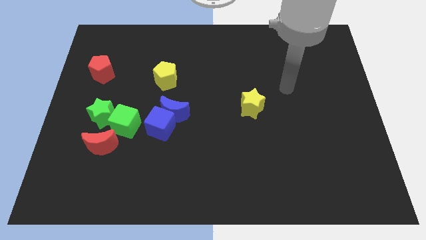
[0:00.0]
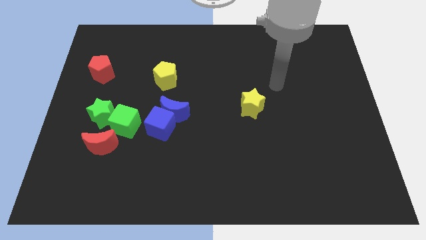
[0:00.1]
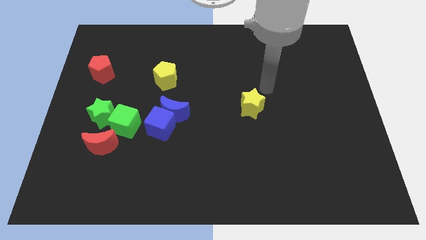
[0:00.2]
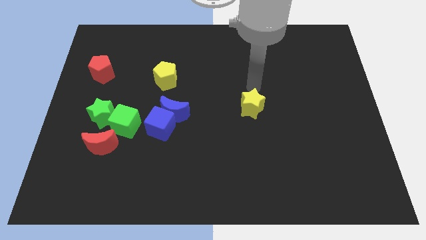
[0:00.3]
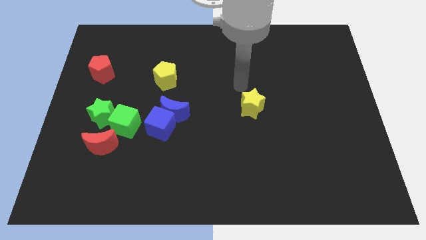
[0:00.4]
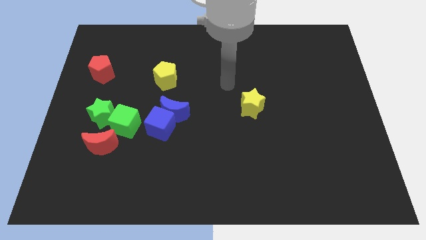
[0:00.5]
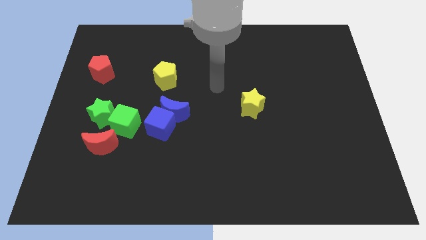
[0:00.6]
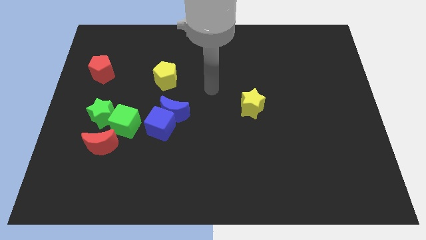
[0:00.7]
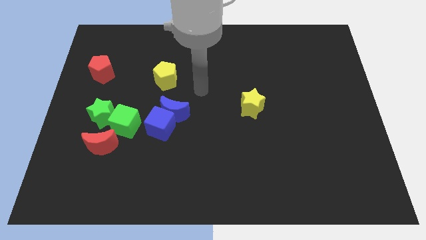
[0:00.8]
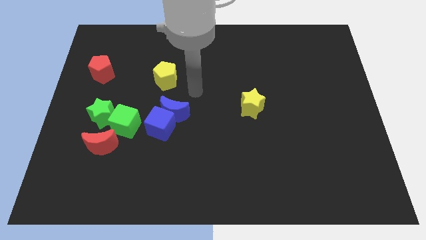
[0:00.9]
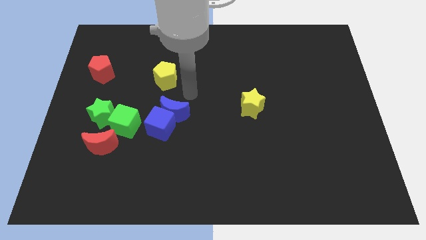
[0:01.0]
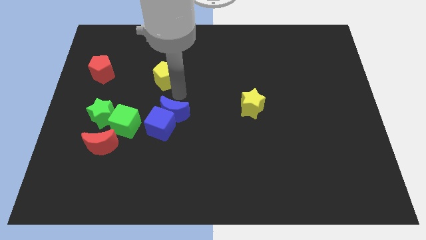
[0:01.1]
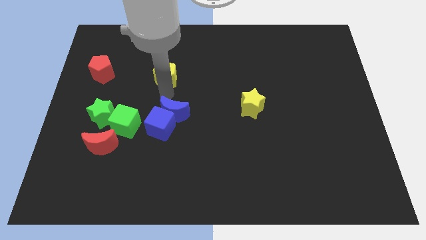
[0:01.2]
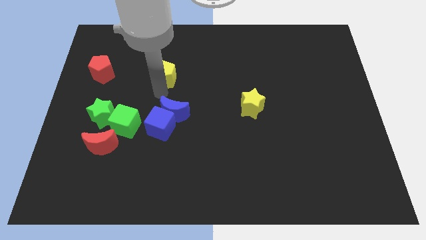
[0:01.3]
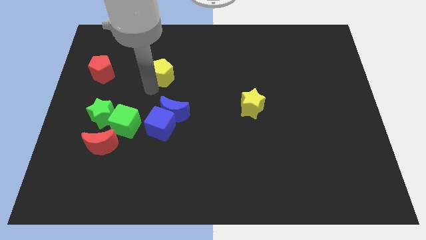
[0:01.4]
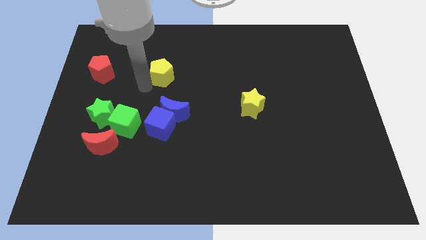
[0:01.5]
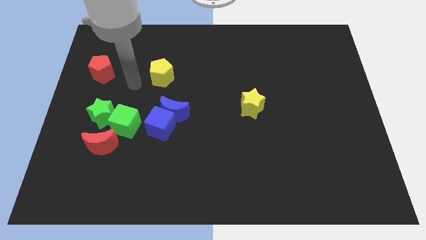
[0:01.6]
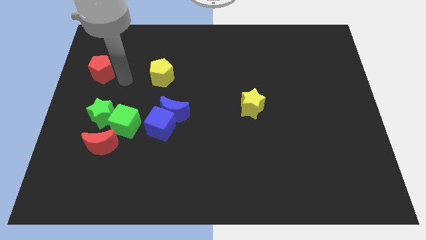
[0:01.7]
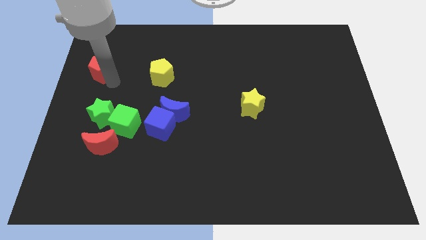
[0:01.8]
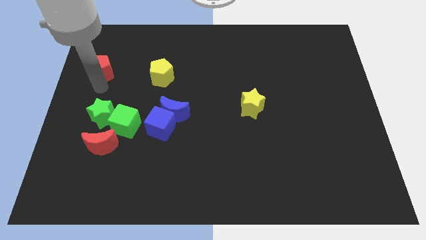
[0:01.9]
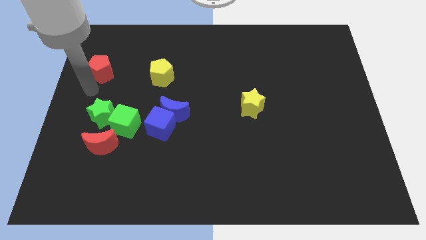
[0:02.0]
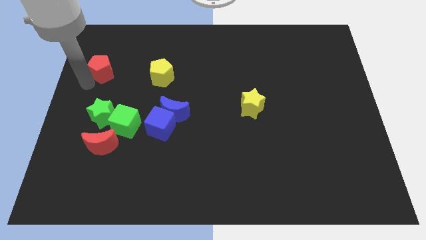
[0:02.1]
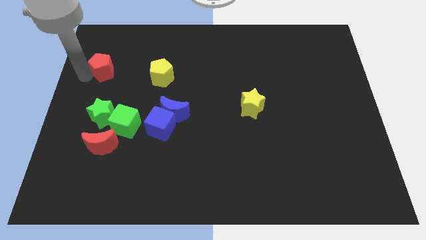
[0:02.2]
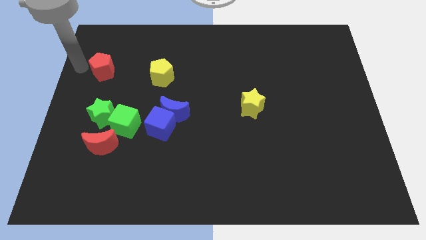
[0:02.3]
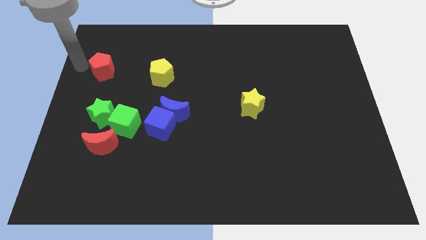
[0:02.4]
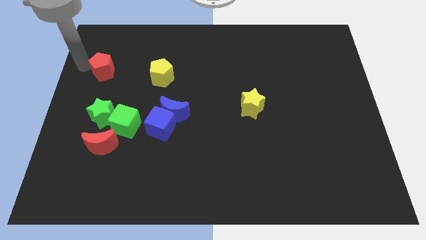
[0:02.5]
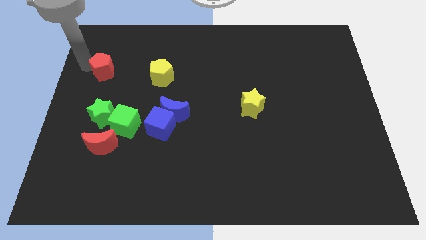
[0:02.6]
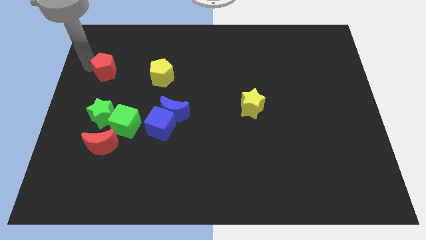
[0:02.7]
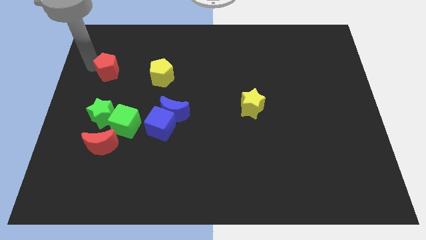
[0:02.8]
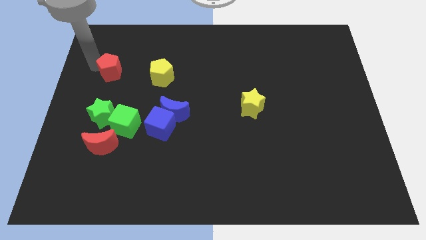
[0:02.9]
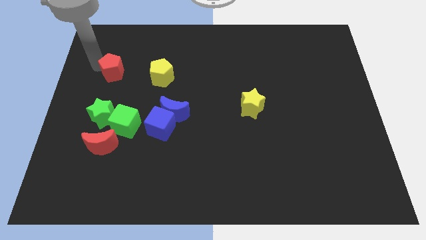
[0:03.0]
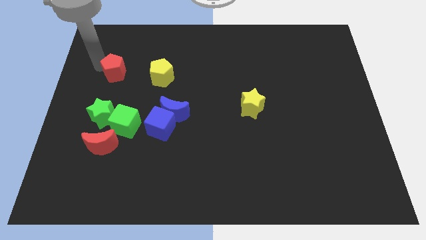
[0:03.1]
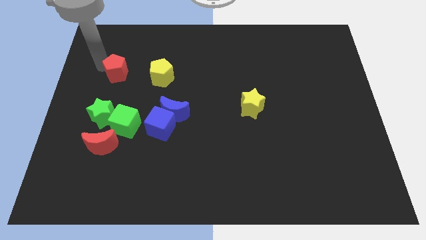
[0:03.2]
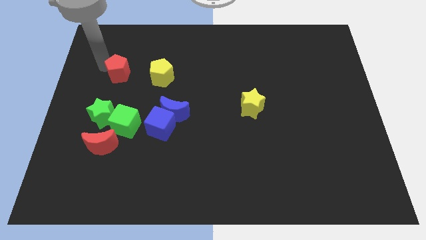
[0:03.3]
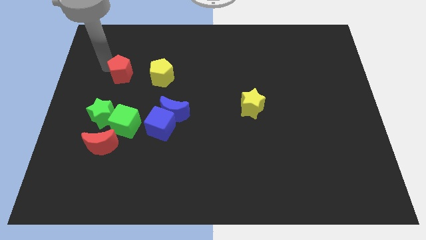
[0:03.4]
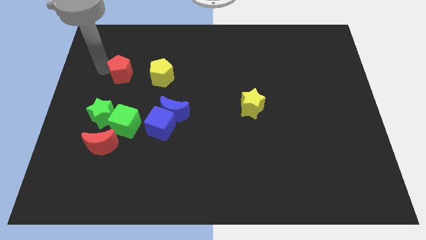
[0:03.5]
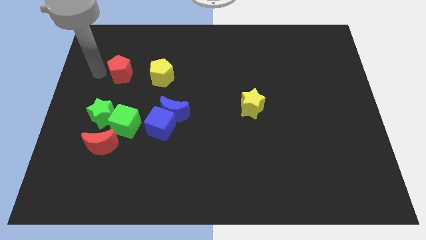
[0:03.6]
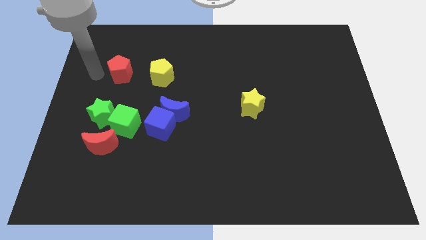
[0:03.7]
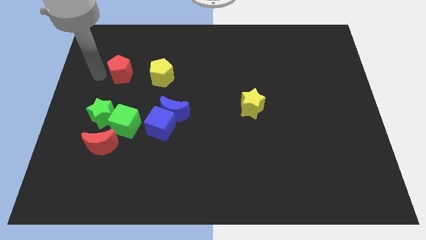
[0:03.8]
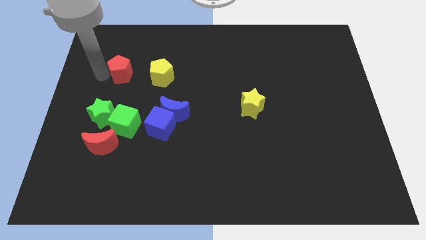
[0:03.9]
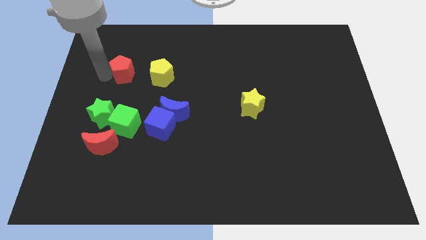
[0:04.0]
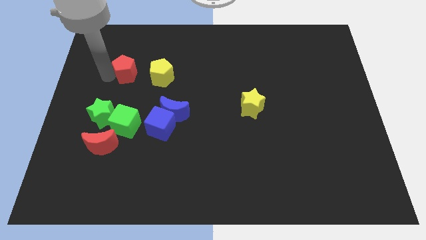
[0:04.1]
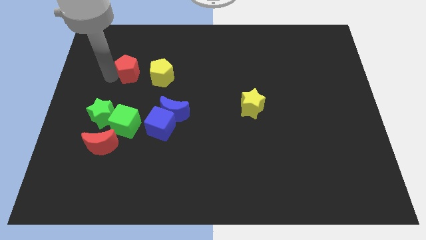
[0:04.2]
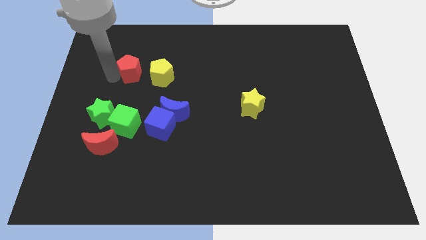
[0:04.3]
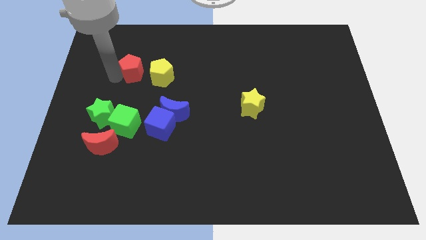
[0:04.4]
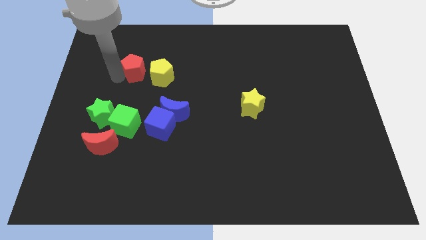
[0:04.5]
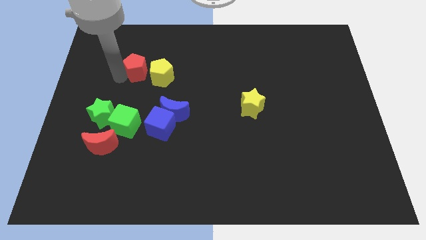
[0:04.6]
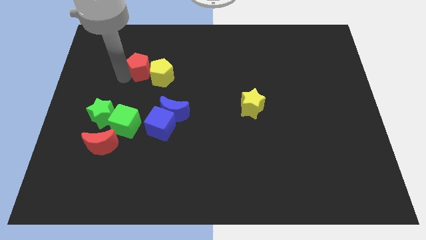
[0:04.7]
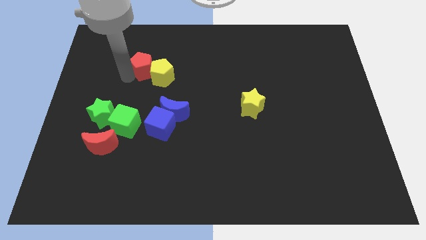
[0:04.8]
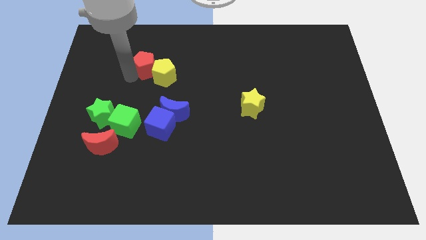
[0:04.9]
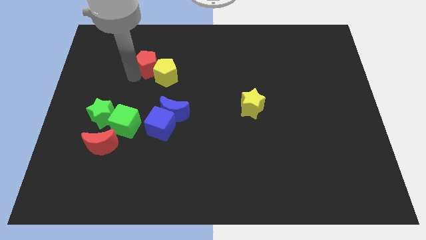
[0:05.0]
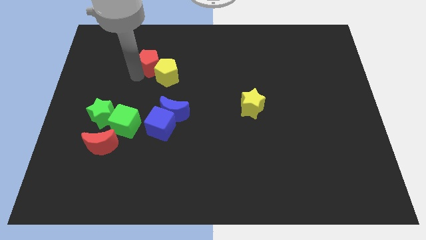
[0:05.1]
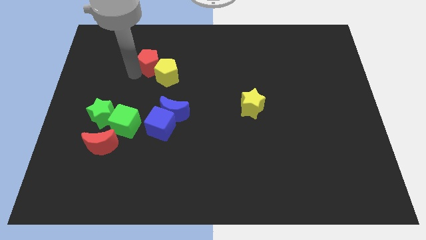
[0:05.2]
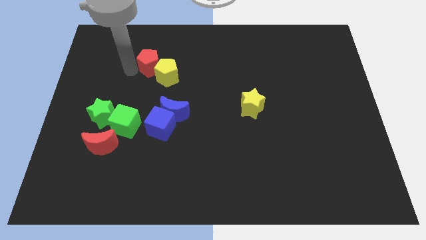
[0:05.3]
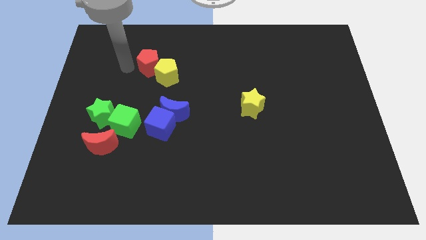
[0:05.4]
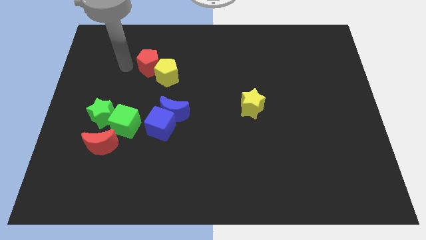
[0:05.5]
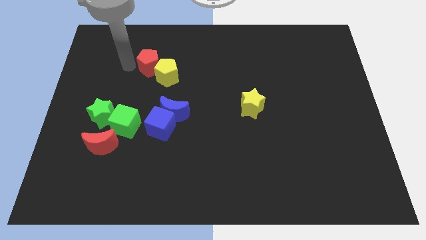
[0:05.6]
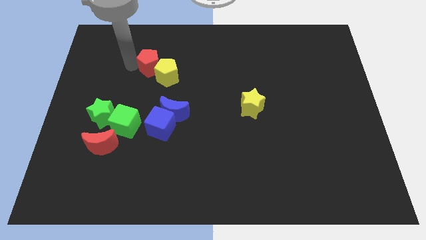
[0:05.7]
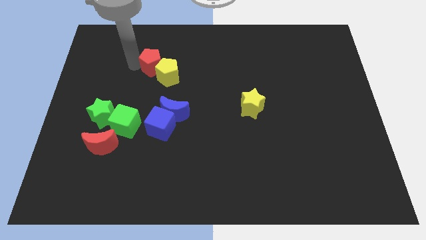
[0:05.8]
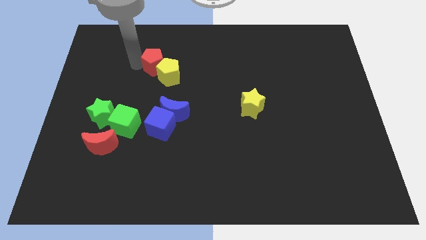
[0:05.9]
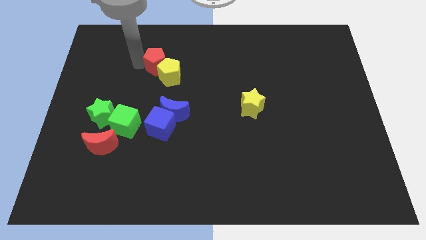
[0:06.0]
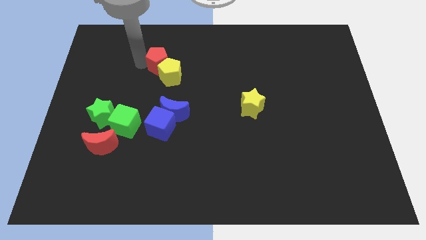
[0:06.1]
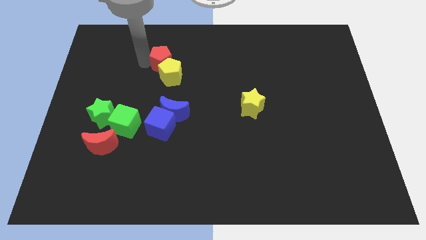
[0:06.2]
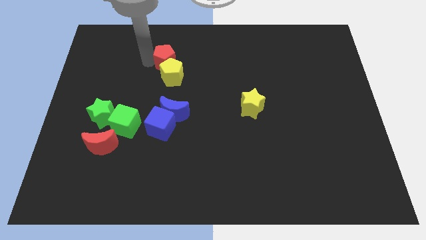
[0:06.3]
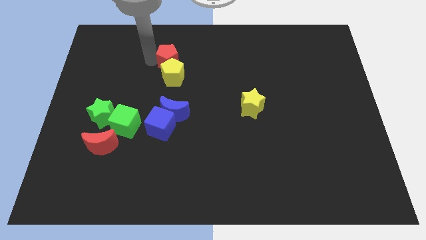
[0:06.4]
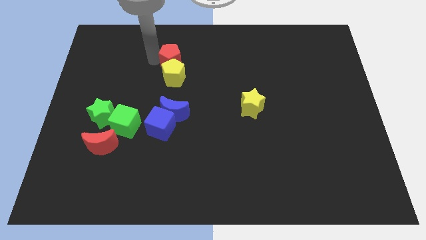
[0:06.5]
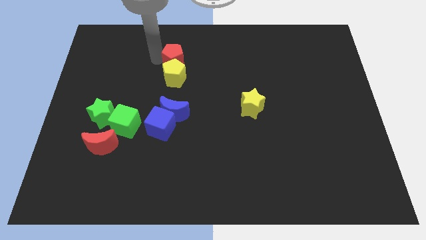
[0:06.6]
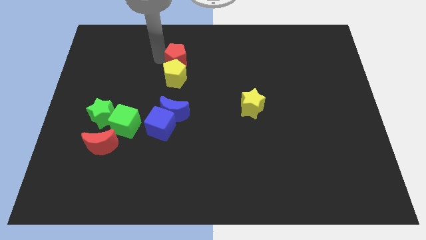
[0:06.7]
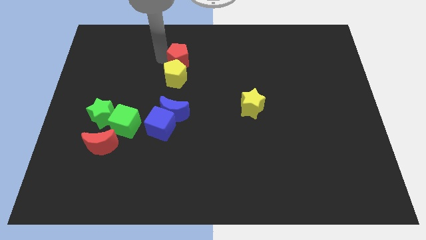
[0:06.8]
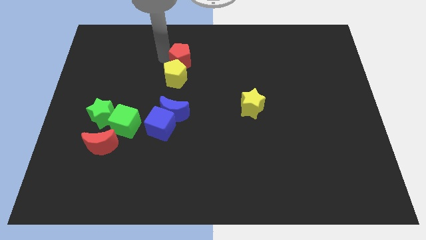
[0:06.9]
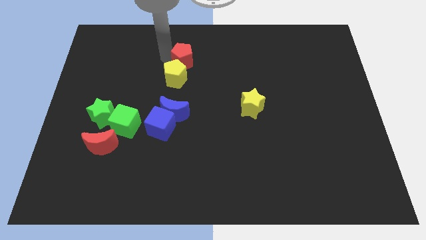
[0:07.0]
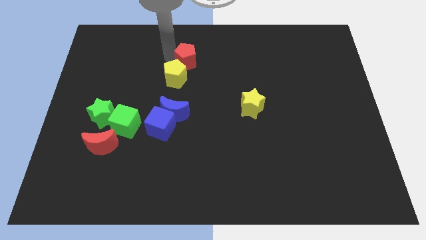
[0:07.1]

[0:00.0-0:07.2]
slide the red pentagon right

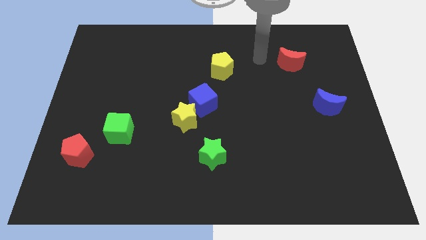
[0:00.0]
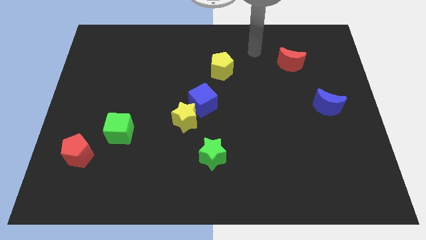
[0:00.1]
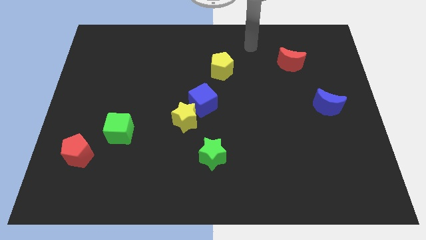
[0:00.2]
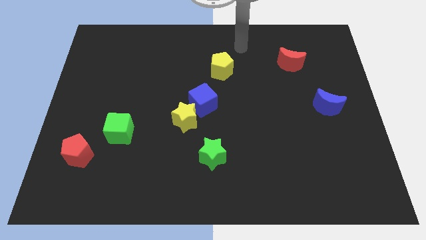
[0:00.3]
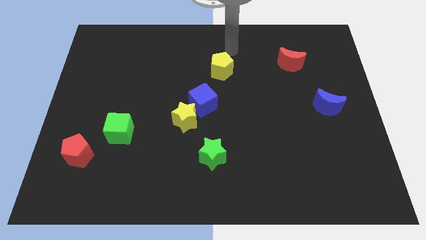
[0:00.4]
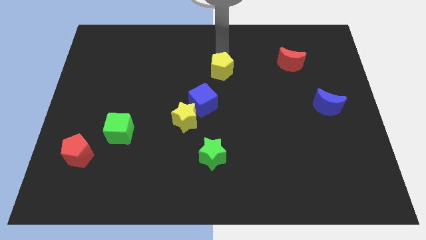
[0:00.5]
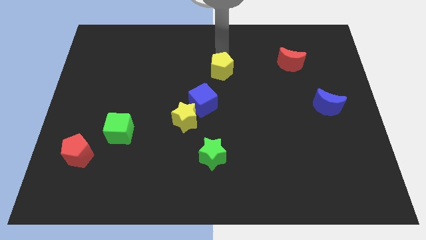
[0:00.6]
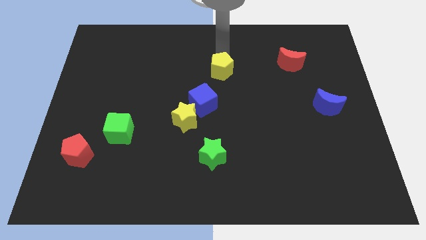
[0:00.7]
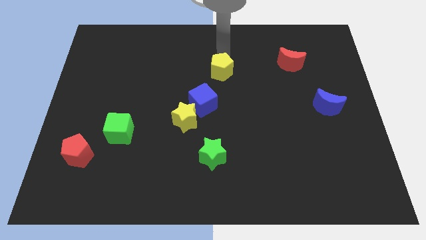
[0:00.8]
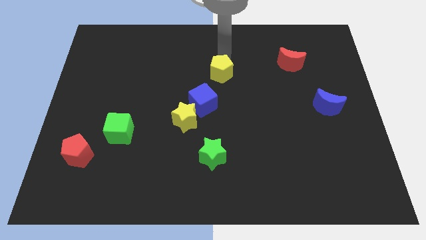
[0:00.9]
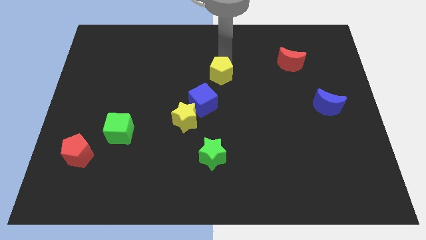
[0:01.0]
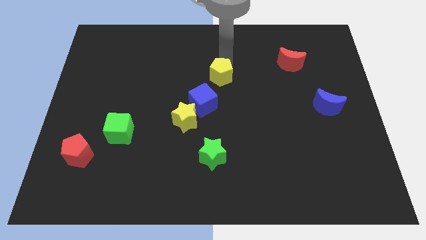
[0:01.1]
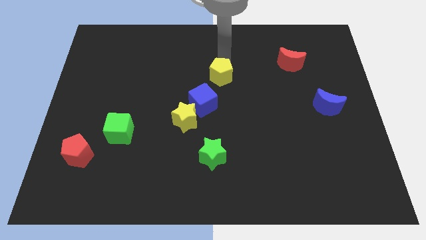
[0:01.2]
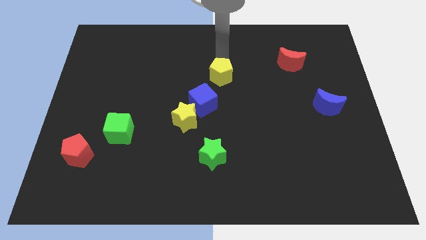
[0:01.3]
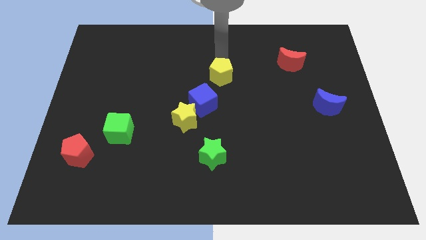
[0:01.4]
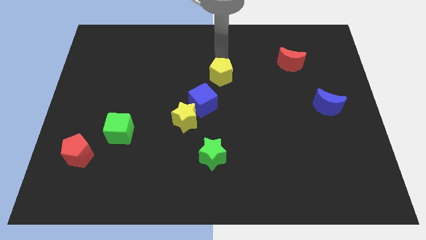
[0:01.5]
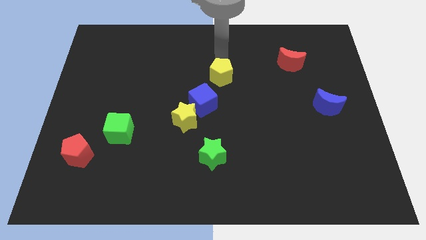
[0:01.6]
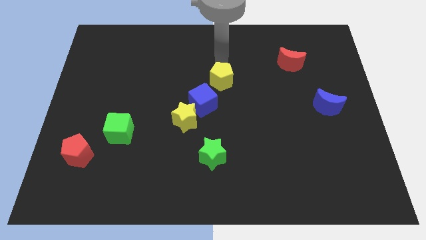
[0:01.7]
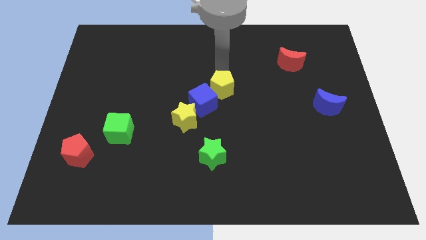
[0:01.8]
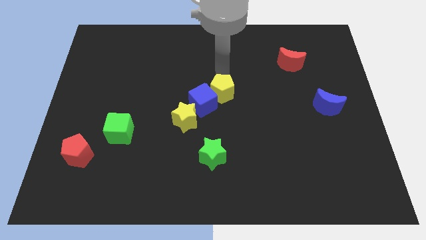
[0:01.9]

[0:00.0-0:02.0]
slightly push the yellow pentagon down
